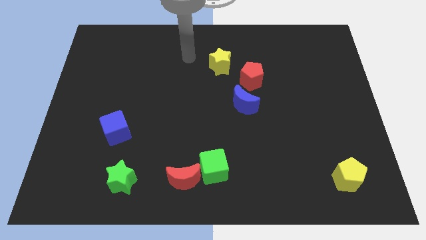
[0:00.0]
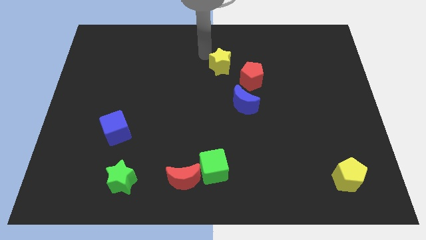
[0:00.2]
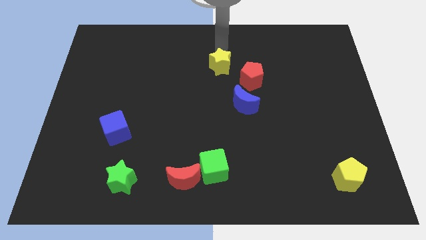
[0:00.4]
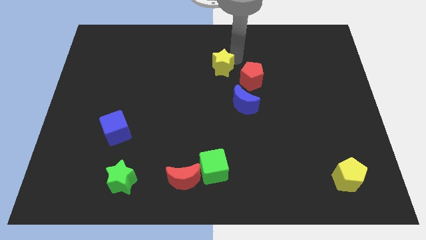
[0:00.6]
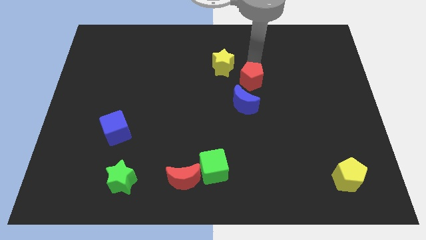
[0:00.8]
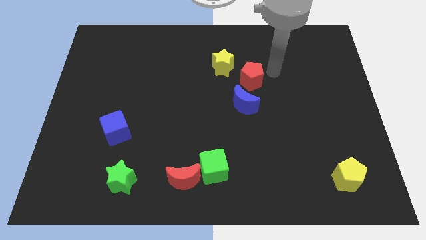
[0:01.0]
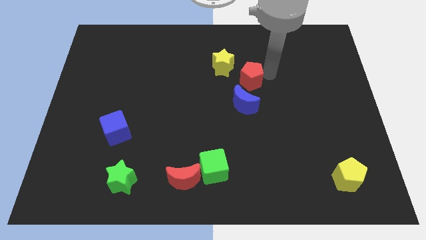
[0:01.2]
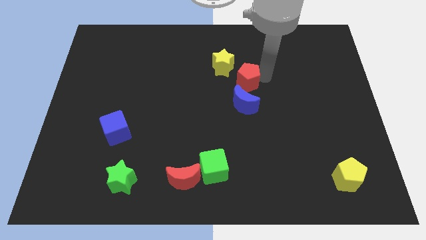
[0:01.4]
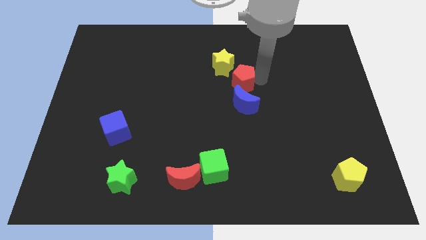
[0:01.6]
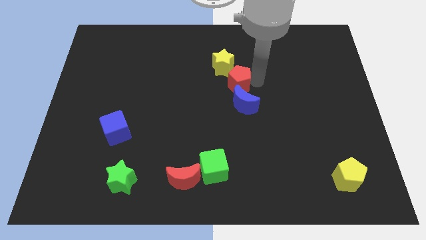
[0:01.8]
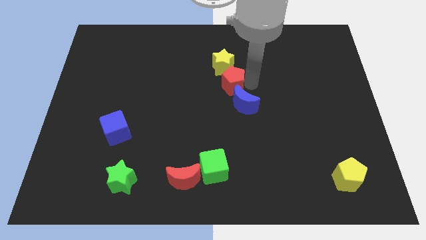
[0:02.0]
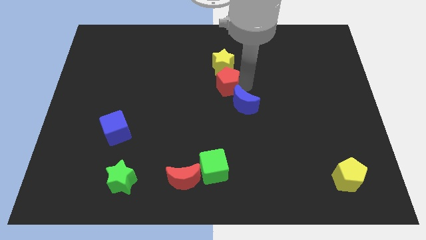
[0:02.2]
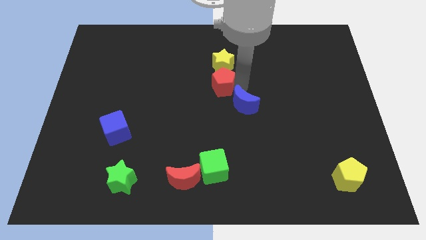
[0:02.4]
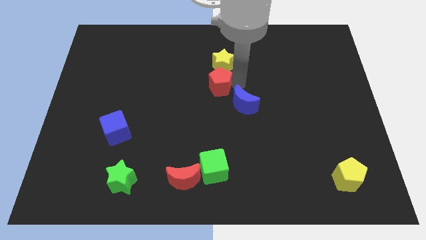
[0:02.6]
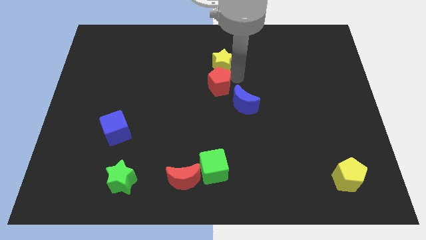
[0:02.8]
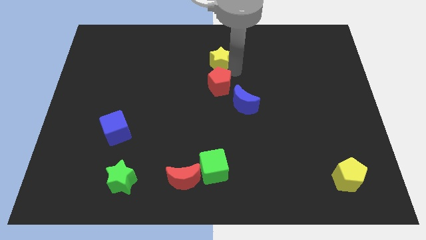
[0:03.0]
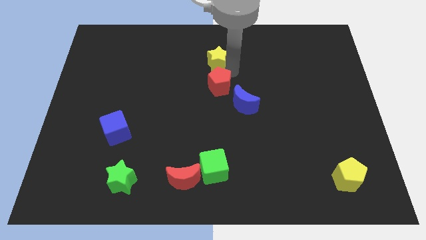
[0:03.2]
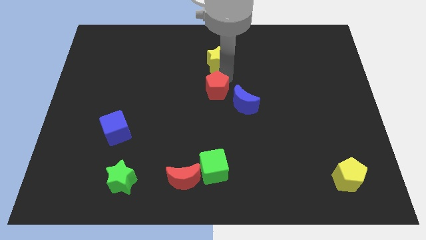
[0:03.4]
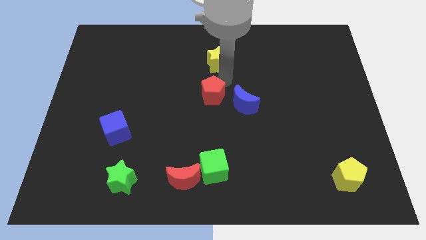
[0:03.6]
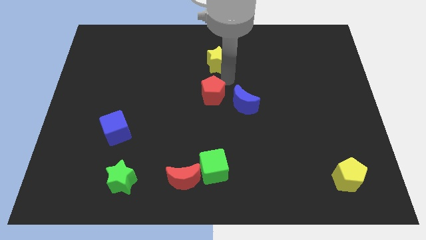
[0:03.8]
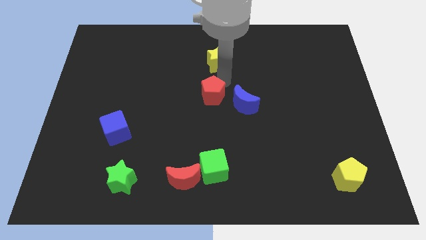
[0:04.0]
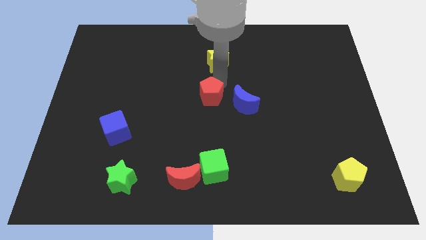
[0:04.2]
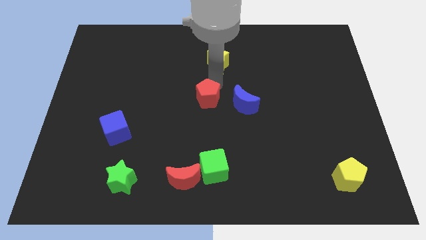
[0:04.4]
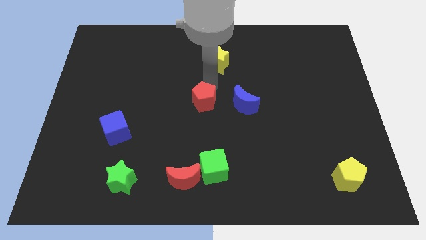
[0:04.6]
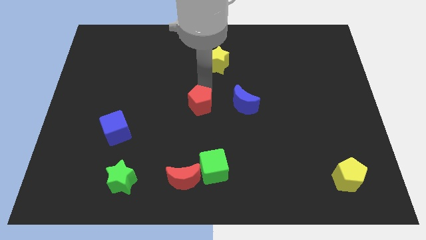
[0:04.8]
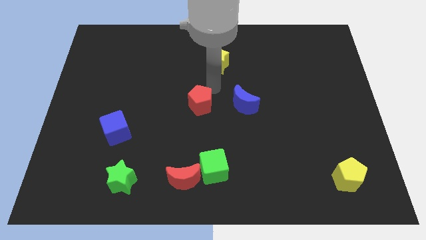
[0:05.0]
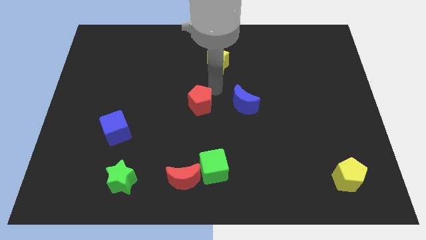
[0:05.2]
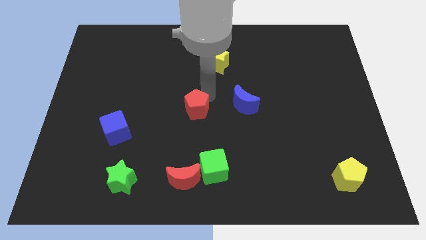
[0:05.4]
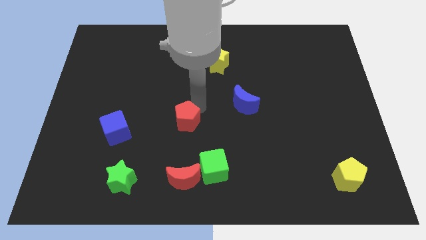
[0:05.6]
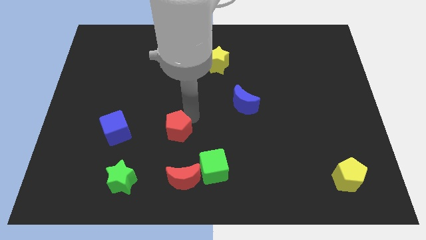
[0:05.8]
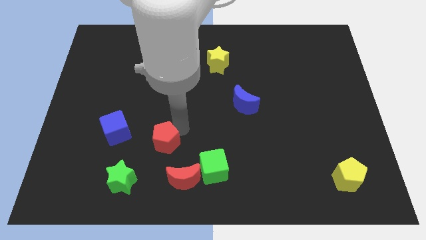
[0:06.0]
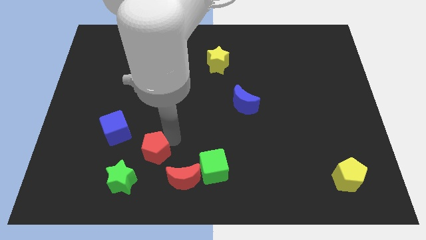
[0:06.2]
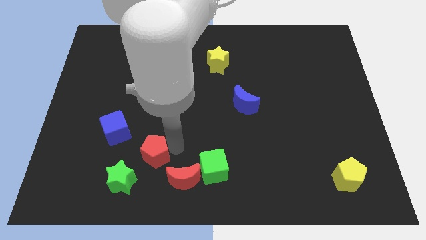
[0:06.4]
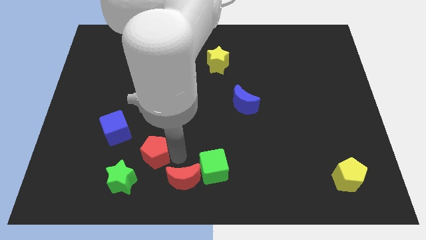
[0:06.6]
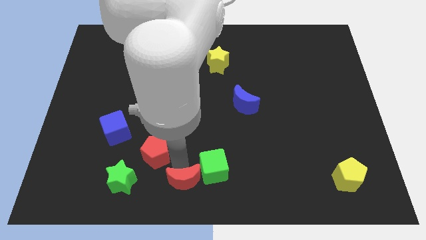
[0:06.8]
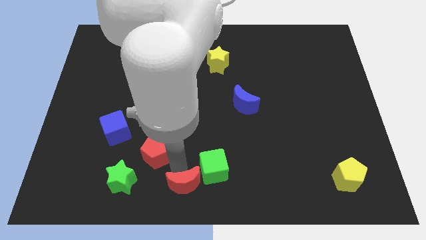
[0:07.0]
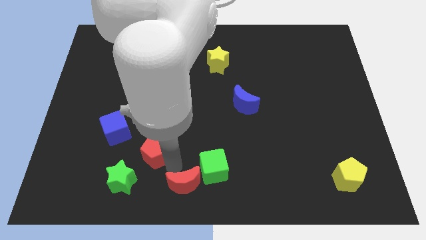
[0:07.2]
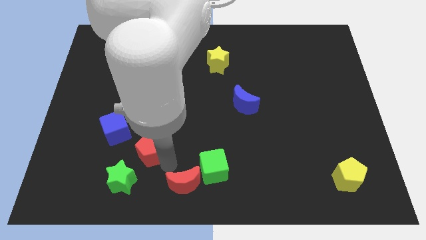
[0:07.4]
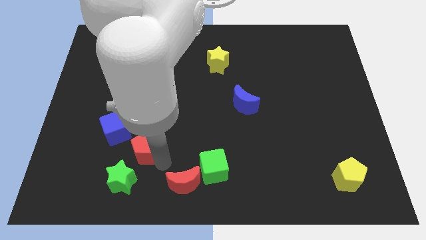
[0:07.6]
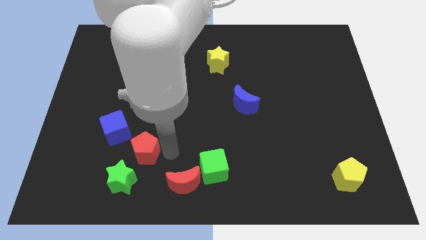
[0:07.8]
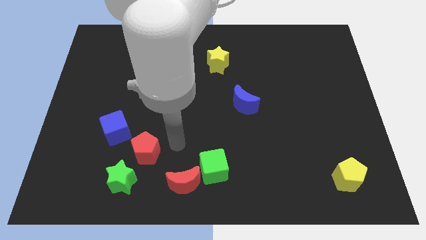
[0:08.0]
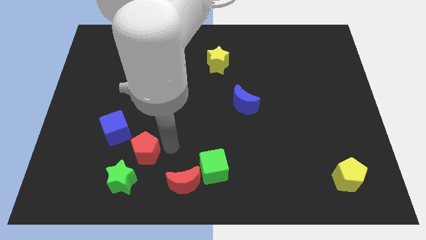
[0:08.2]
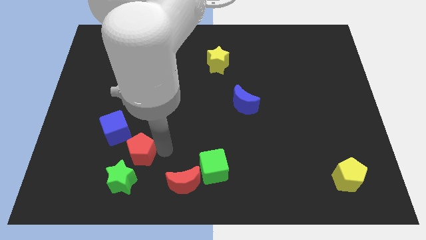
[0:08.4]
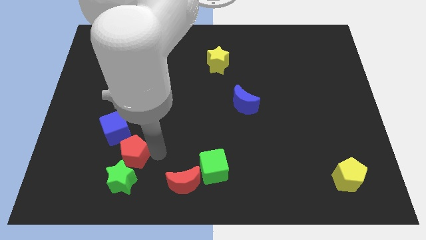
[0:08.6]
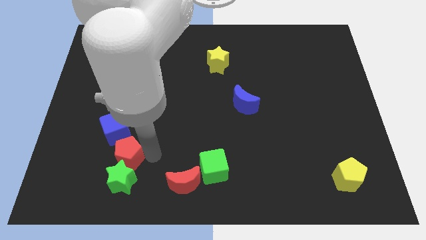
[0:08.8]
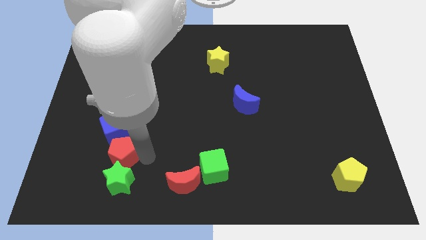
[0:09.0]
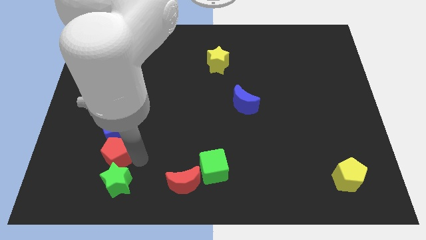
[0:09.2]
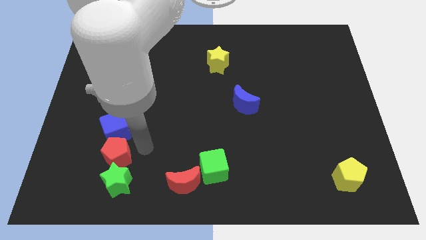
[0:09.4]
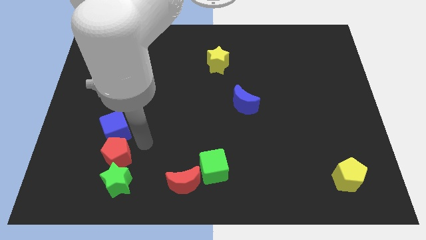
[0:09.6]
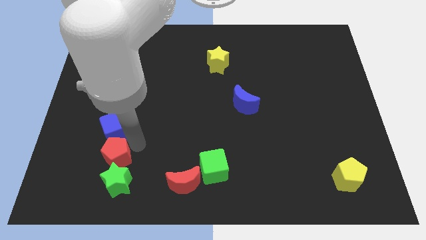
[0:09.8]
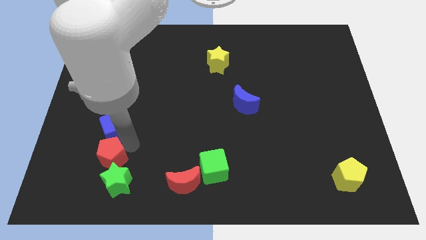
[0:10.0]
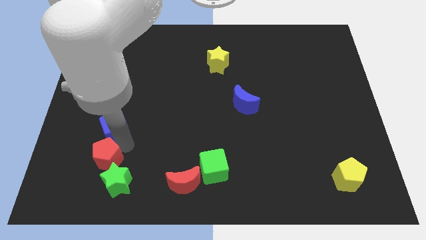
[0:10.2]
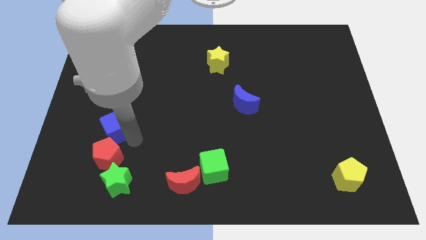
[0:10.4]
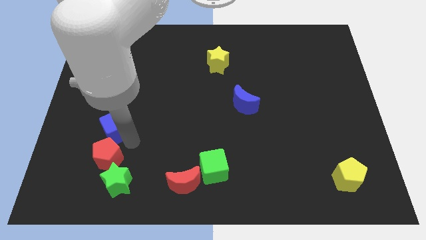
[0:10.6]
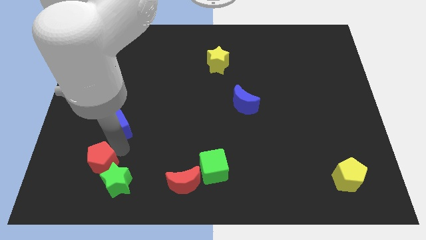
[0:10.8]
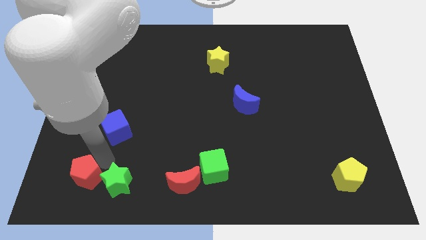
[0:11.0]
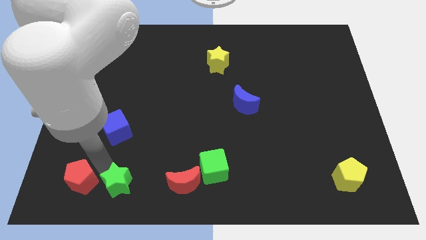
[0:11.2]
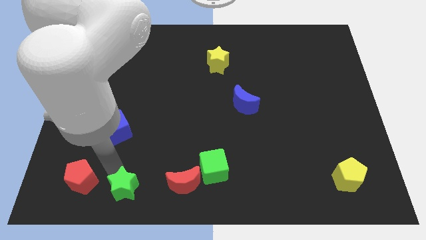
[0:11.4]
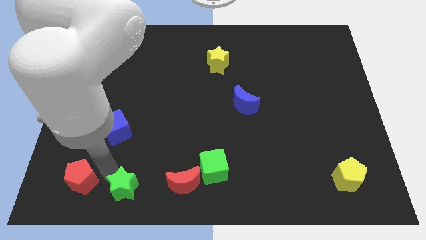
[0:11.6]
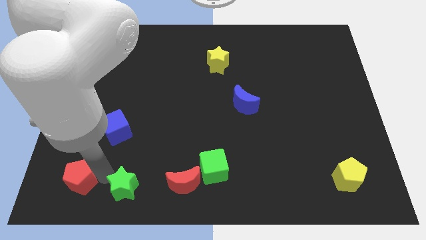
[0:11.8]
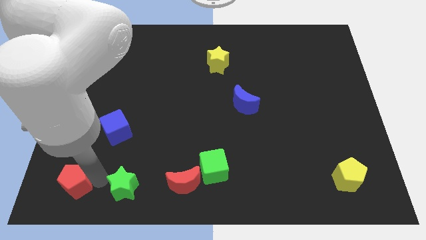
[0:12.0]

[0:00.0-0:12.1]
move the red pentagon to the lower left corner

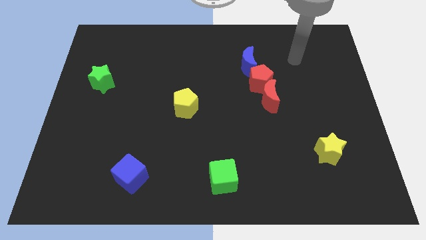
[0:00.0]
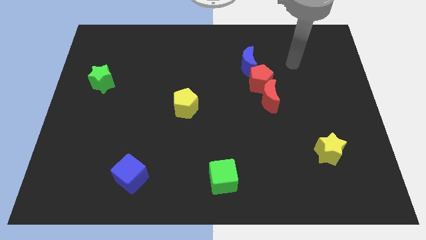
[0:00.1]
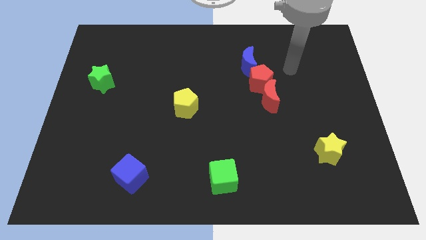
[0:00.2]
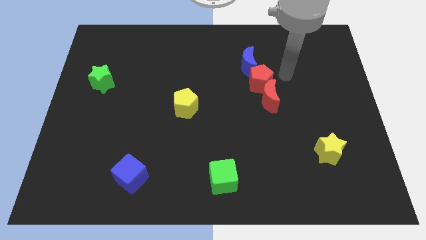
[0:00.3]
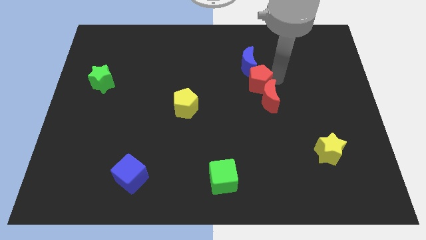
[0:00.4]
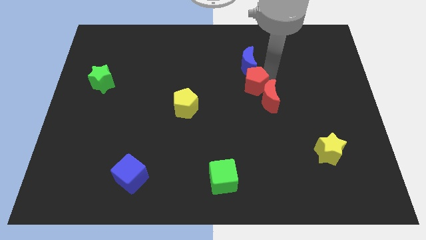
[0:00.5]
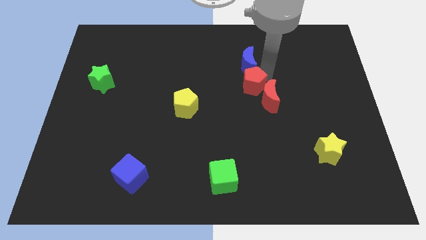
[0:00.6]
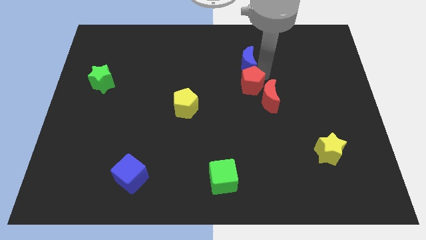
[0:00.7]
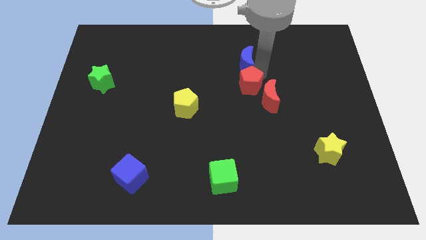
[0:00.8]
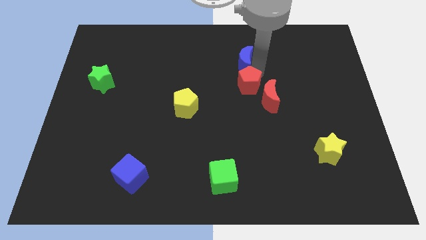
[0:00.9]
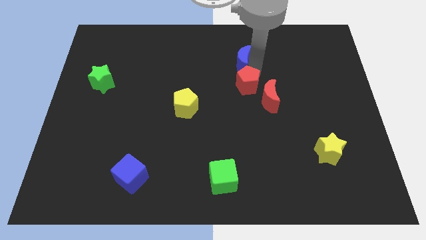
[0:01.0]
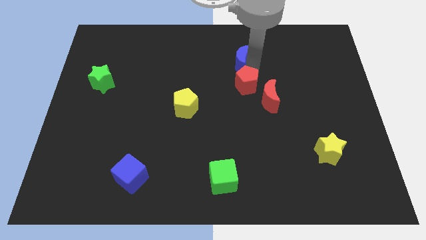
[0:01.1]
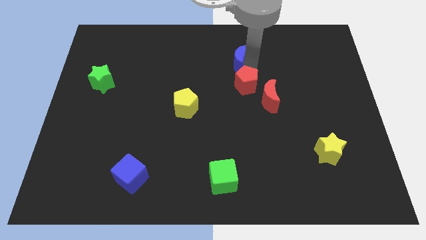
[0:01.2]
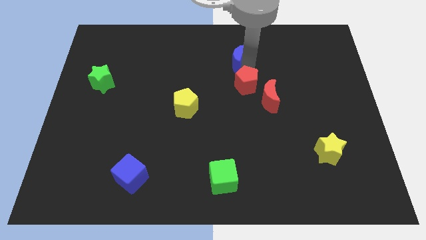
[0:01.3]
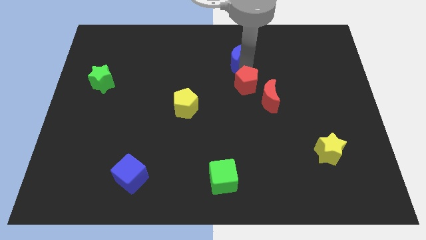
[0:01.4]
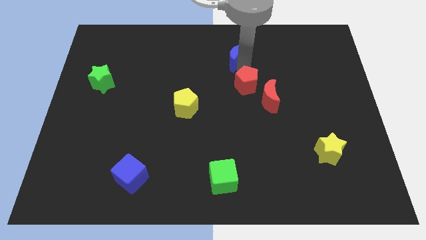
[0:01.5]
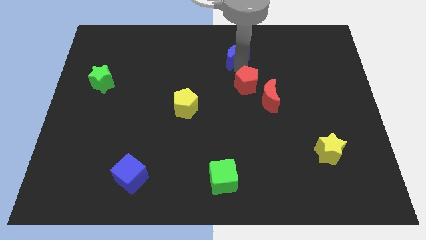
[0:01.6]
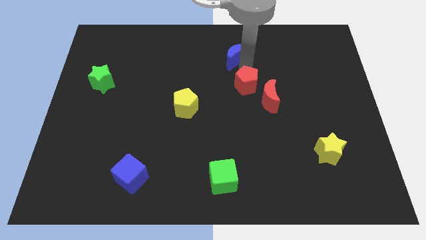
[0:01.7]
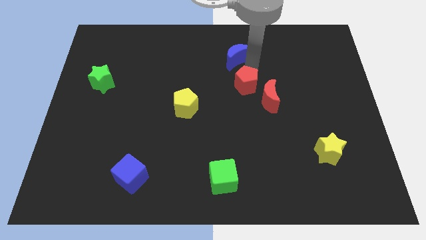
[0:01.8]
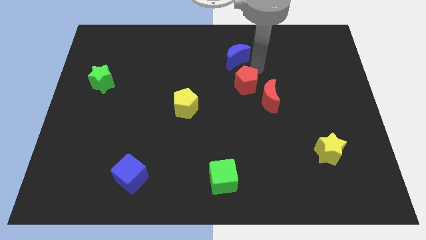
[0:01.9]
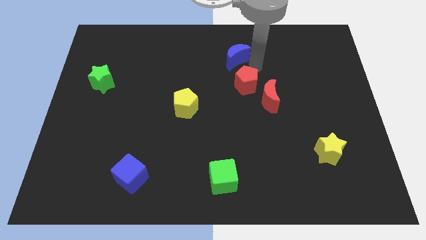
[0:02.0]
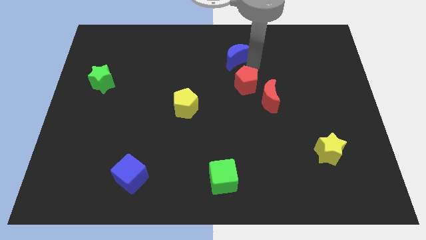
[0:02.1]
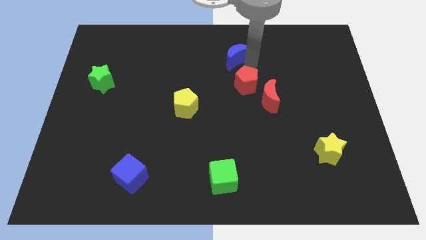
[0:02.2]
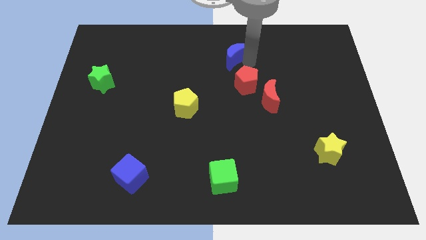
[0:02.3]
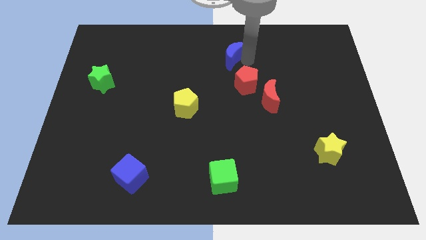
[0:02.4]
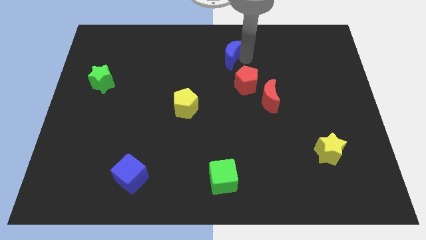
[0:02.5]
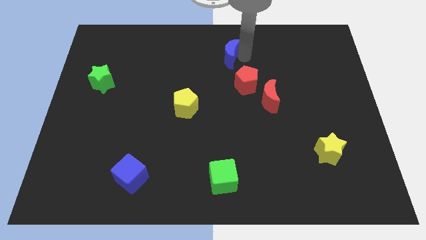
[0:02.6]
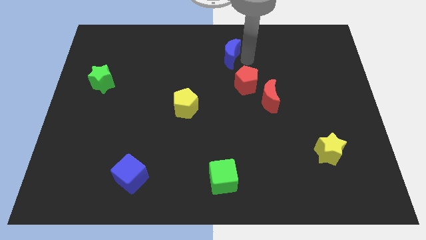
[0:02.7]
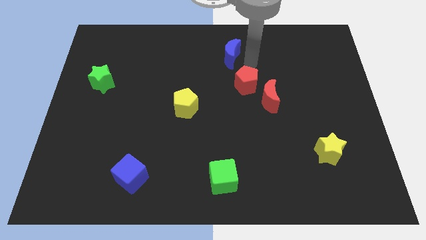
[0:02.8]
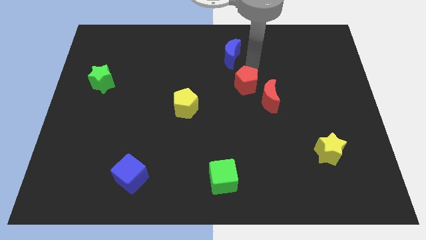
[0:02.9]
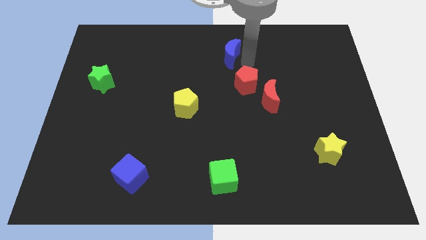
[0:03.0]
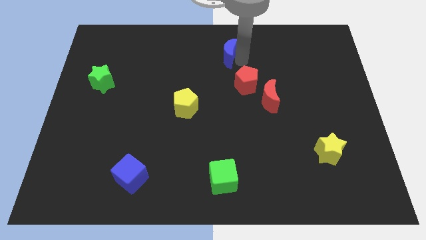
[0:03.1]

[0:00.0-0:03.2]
push the blue moon to the top side
